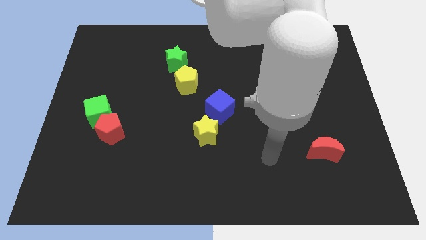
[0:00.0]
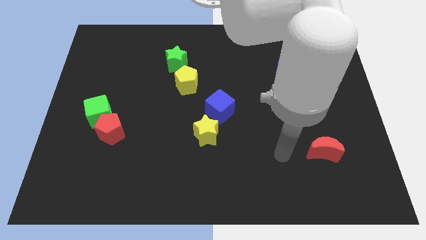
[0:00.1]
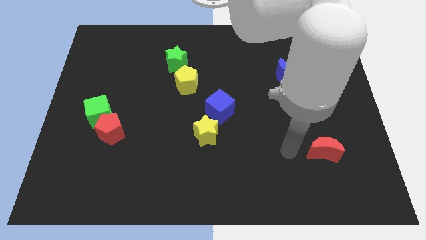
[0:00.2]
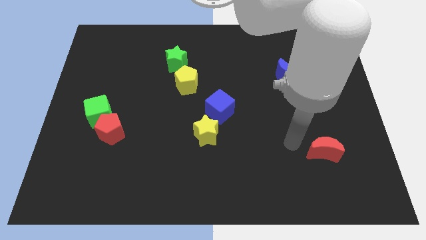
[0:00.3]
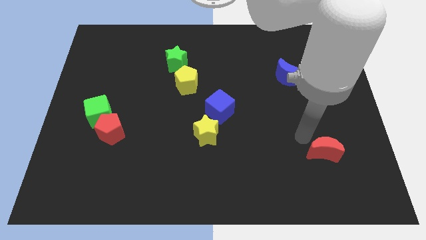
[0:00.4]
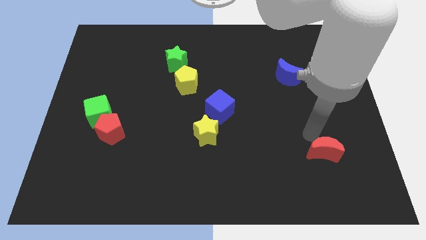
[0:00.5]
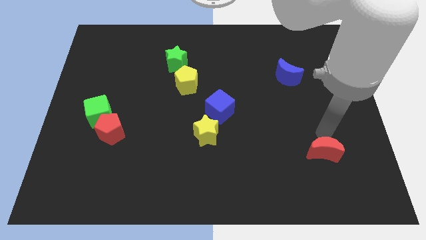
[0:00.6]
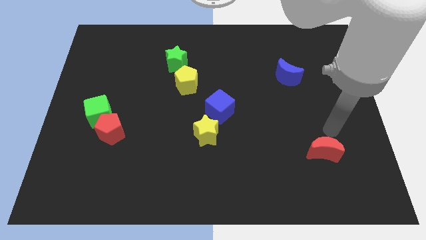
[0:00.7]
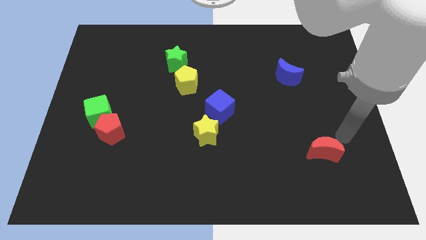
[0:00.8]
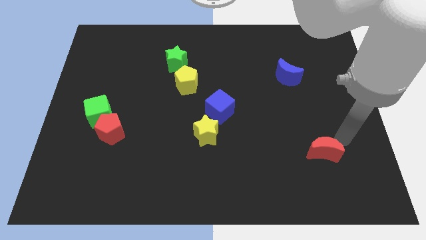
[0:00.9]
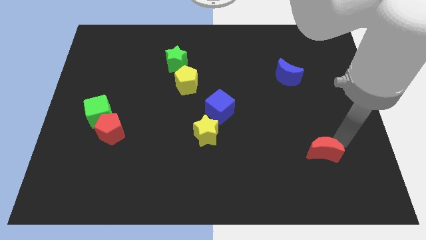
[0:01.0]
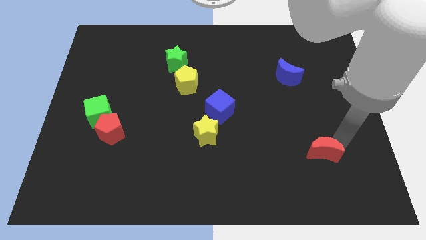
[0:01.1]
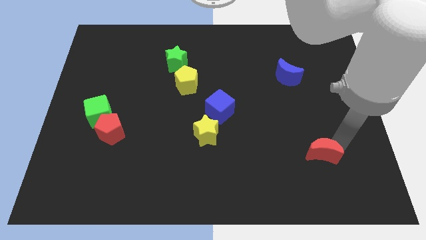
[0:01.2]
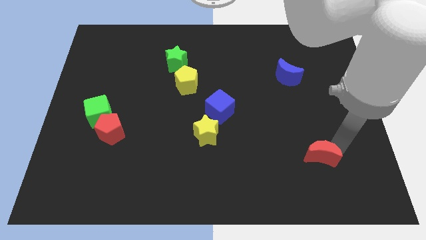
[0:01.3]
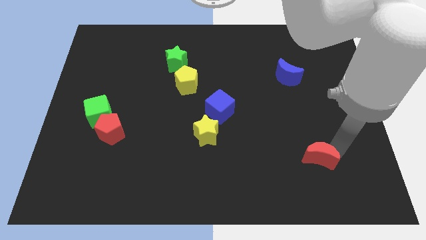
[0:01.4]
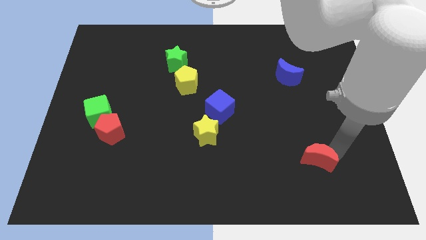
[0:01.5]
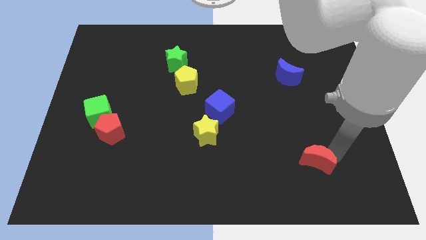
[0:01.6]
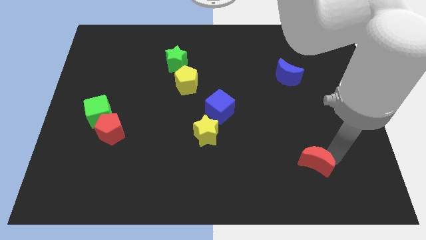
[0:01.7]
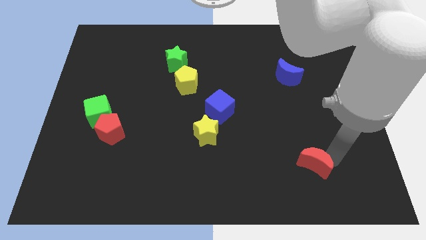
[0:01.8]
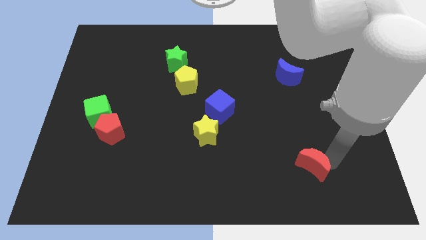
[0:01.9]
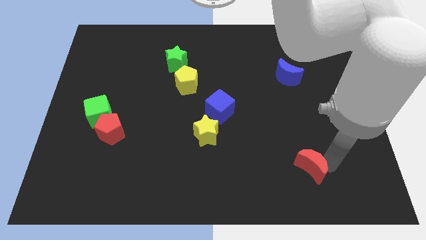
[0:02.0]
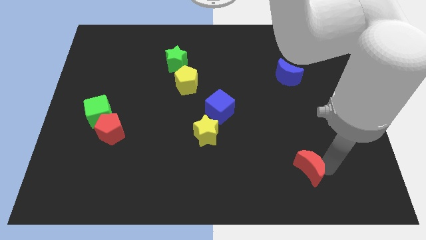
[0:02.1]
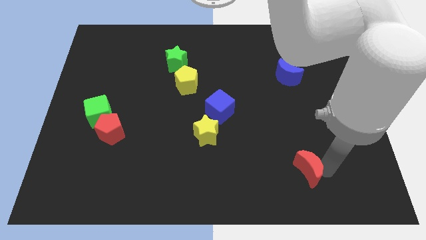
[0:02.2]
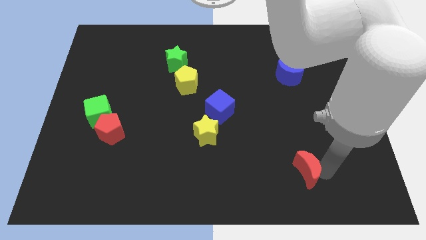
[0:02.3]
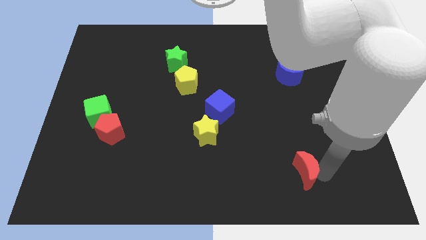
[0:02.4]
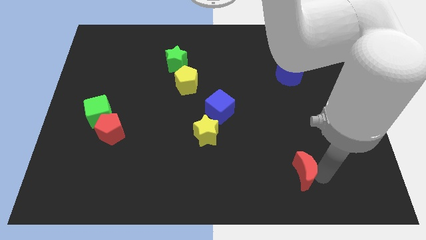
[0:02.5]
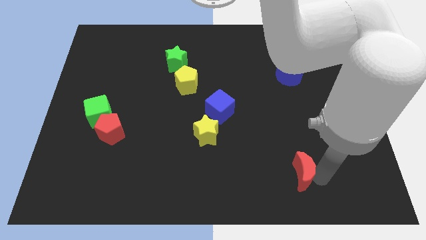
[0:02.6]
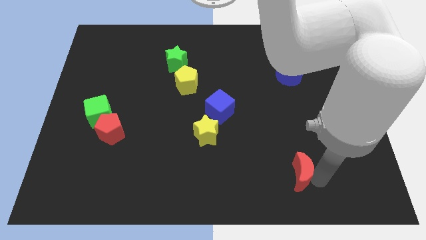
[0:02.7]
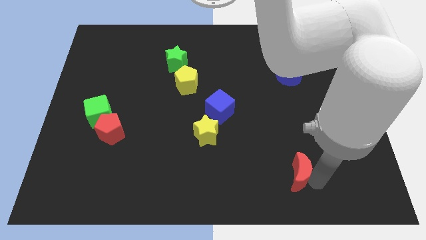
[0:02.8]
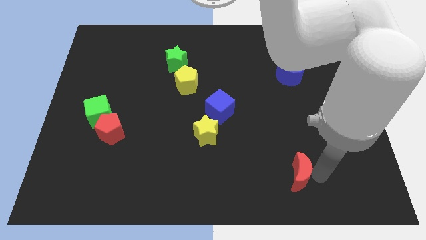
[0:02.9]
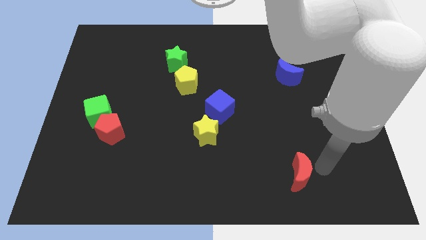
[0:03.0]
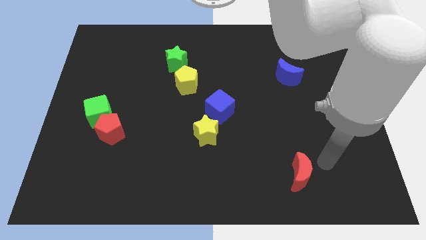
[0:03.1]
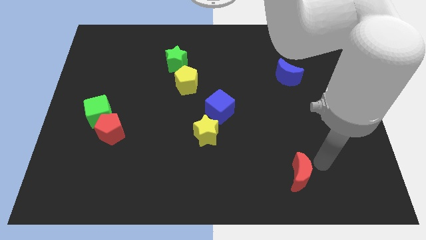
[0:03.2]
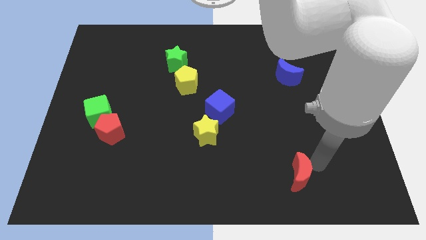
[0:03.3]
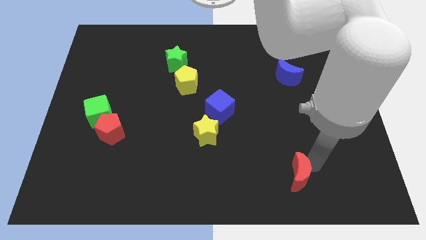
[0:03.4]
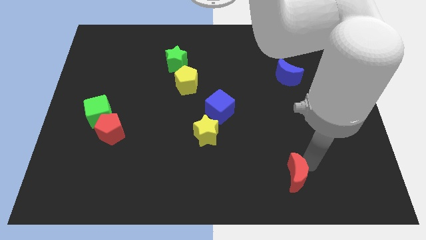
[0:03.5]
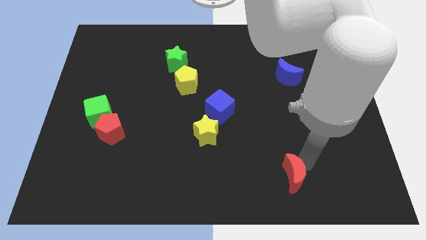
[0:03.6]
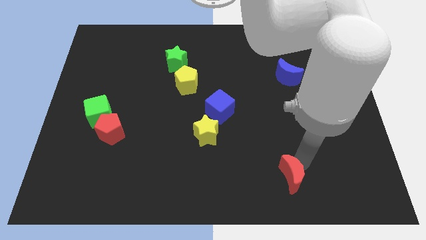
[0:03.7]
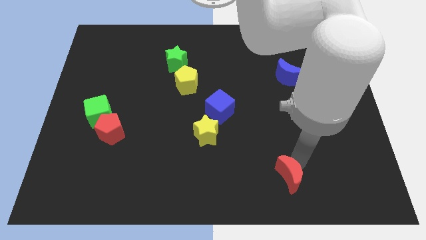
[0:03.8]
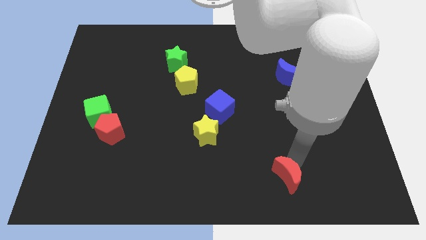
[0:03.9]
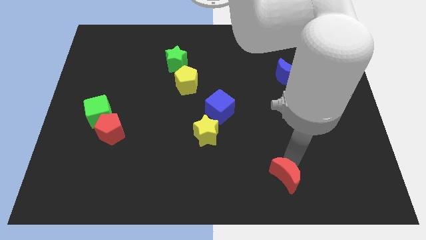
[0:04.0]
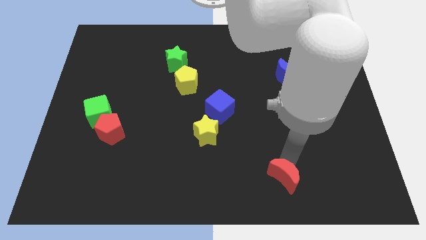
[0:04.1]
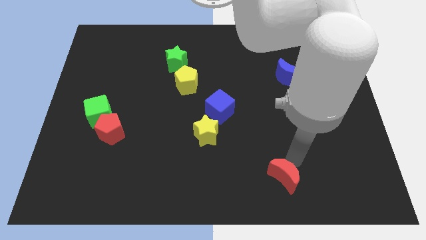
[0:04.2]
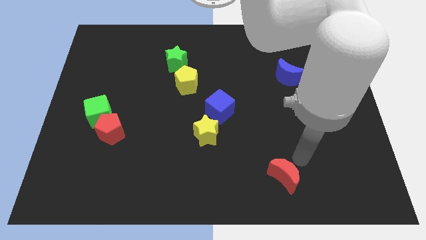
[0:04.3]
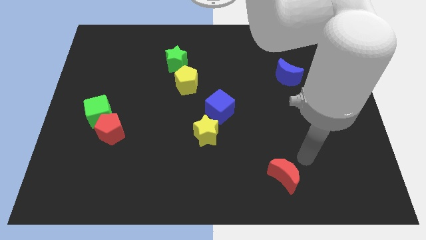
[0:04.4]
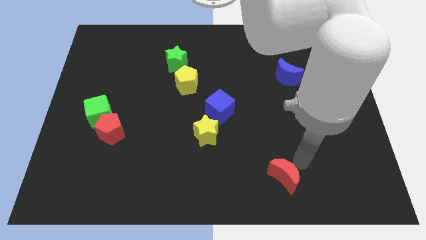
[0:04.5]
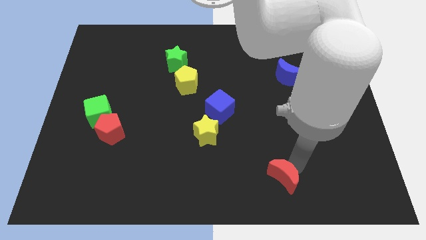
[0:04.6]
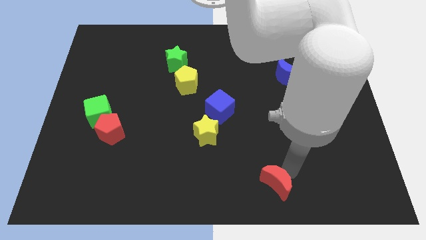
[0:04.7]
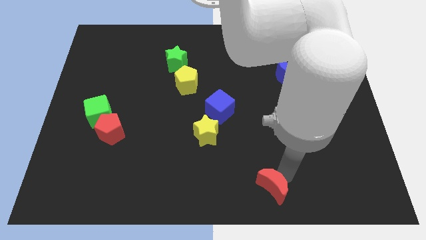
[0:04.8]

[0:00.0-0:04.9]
move the red moon to the bottom
